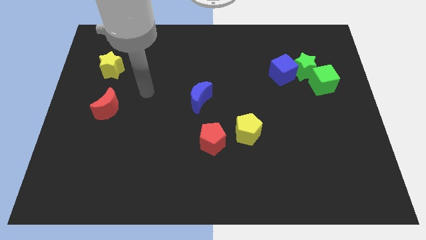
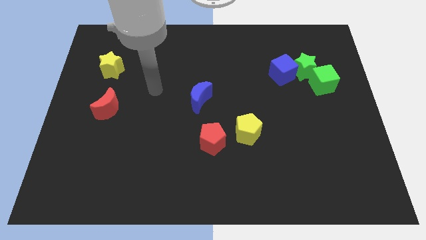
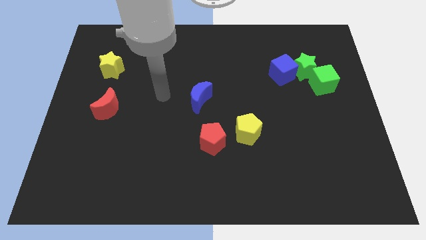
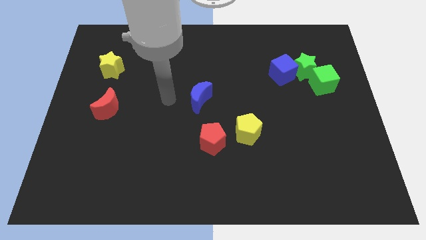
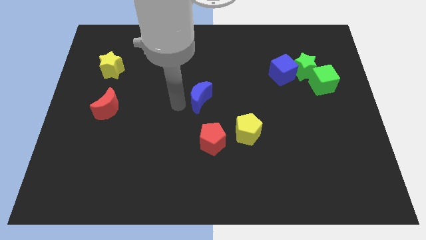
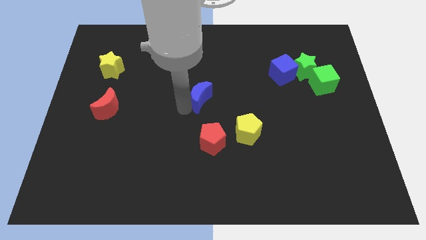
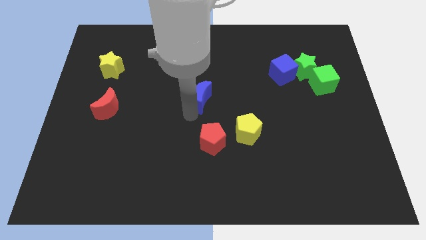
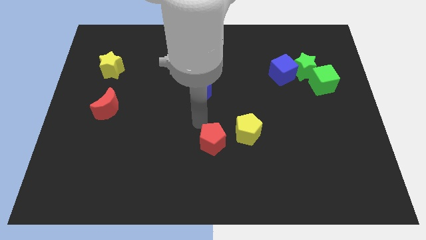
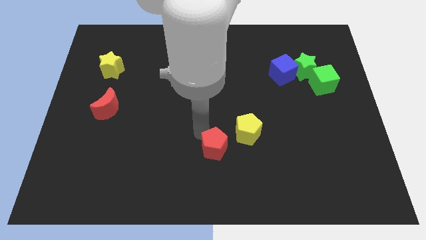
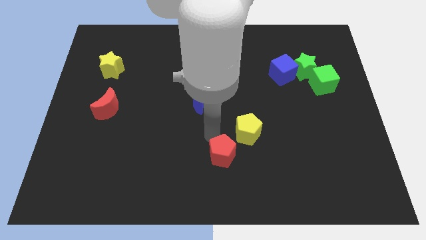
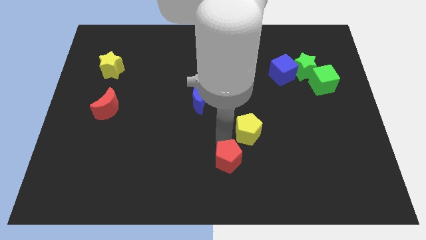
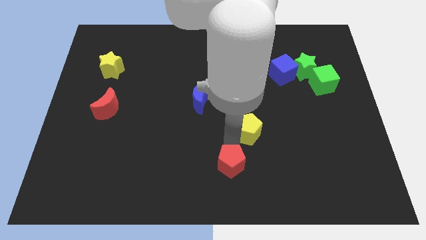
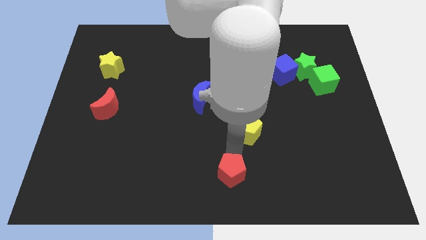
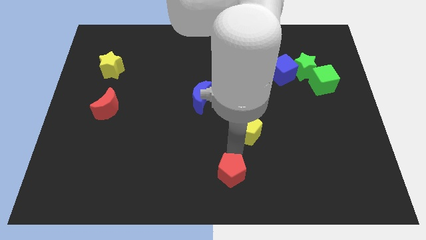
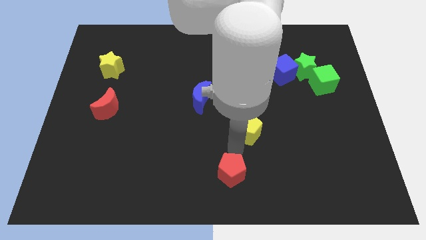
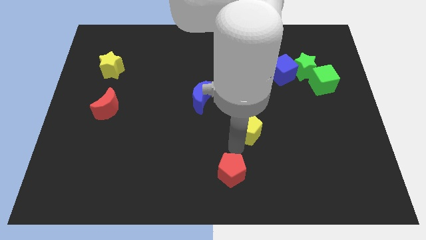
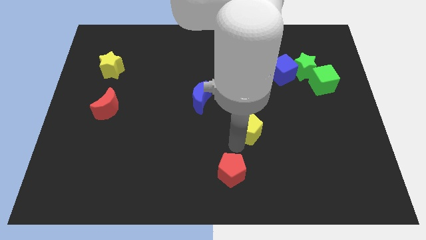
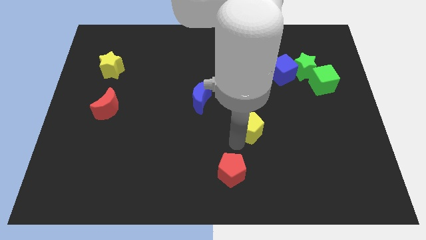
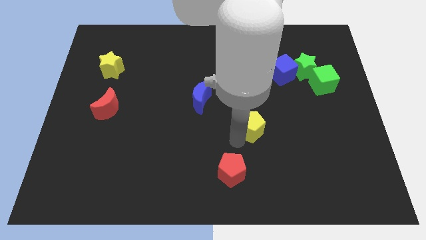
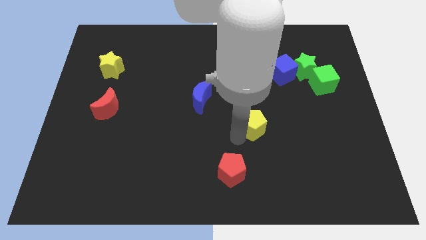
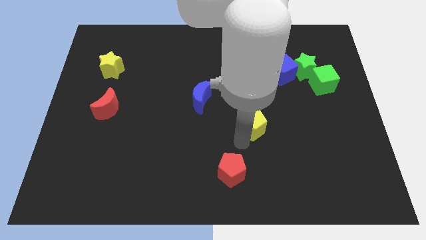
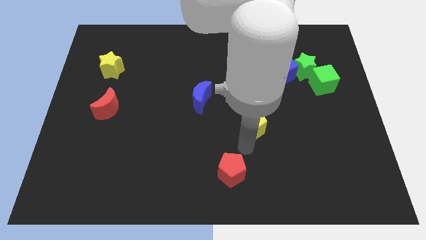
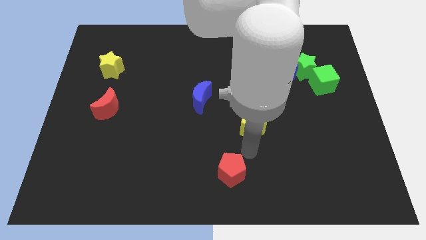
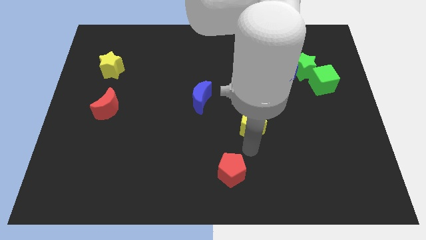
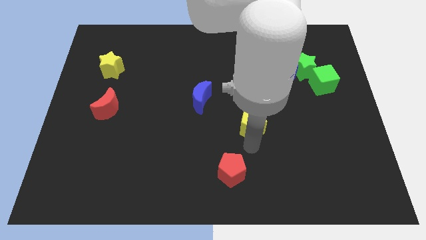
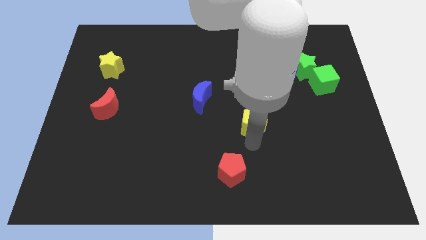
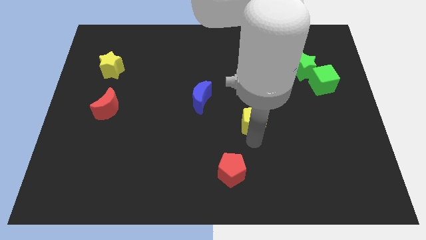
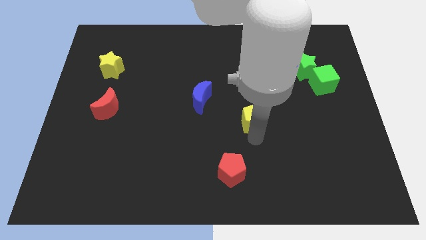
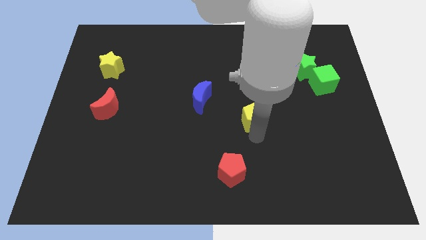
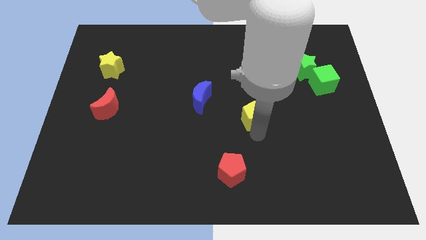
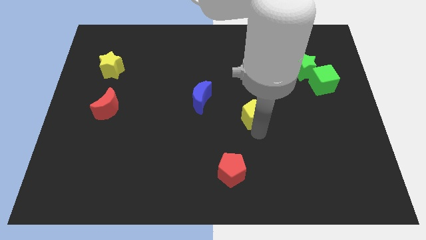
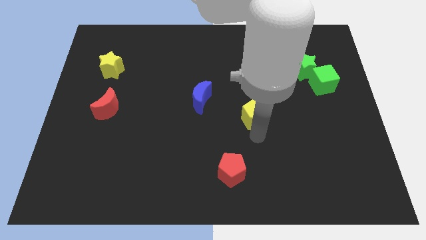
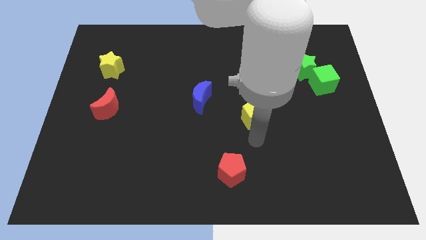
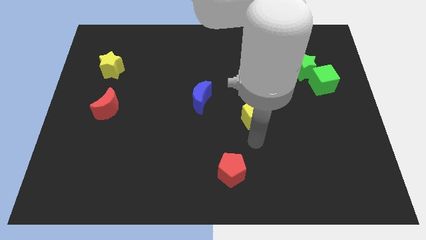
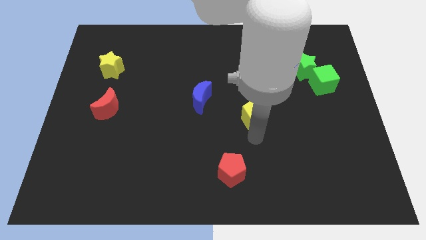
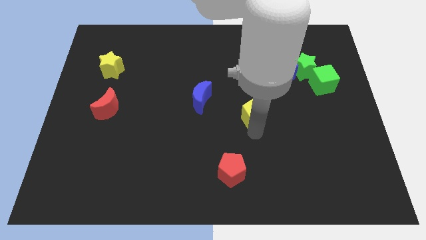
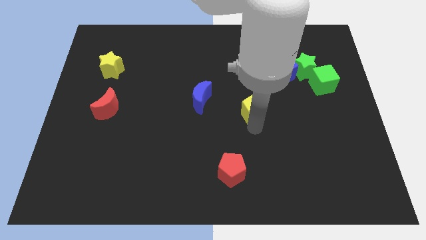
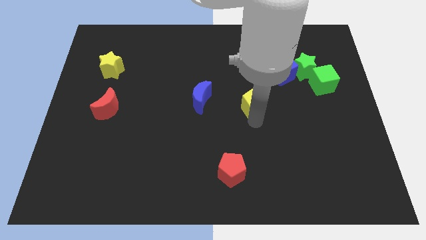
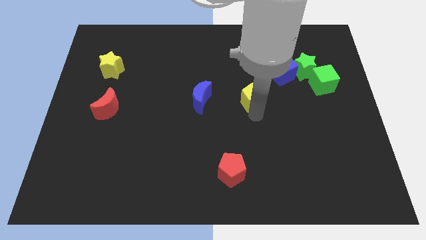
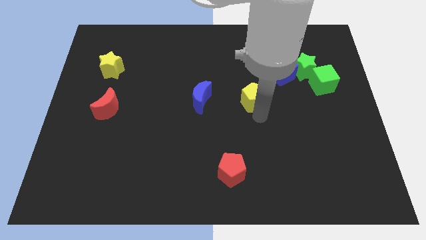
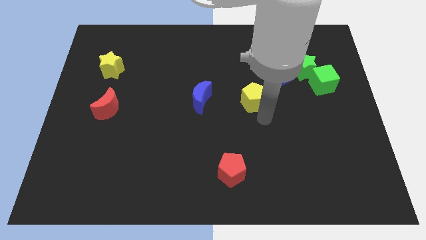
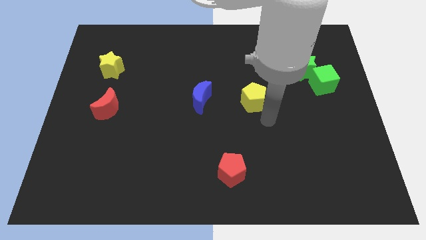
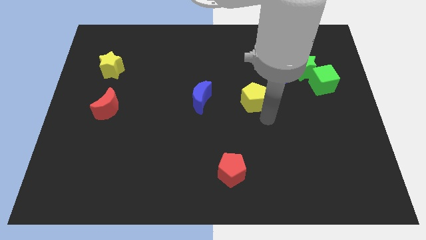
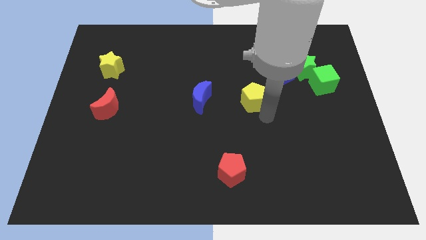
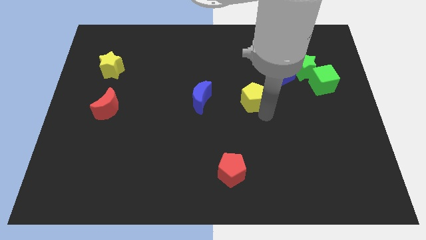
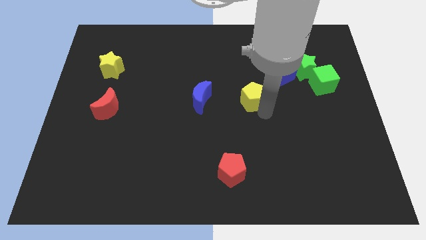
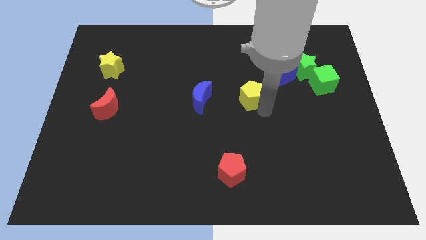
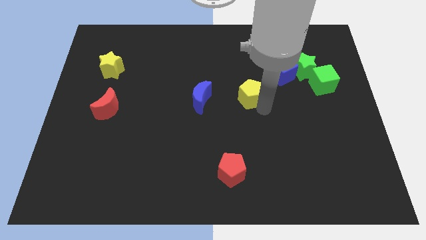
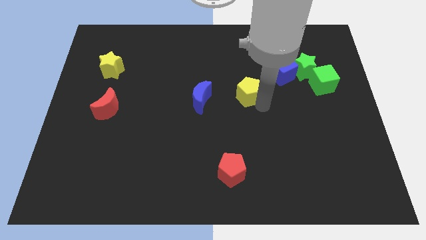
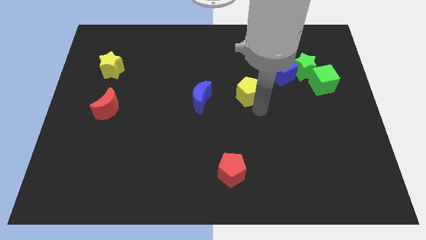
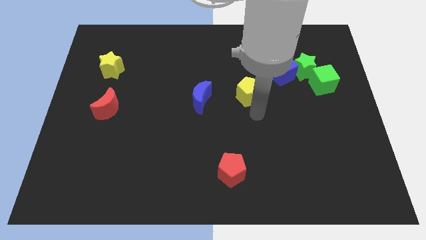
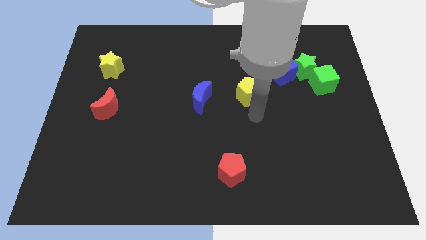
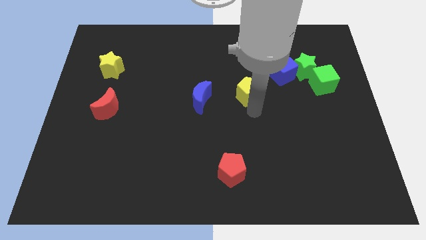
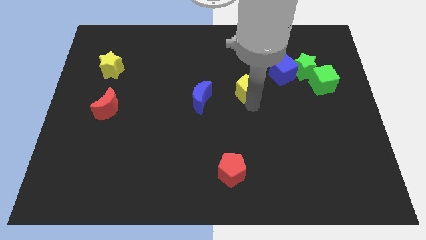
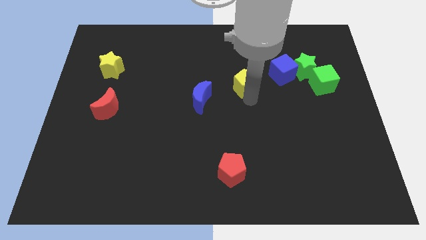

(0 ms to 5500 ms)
put the yellow pentagon left of the blue cube

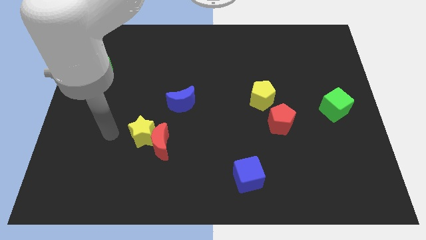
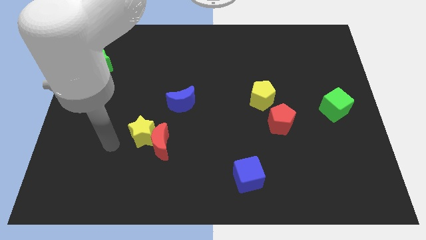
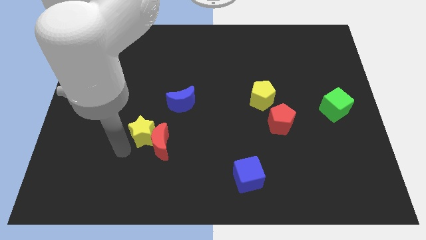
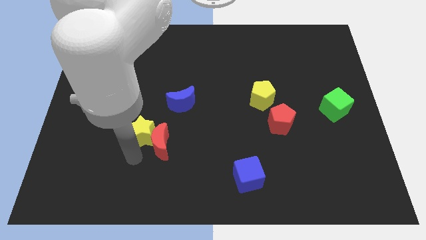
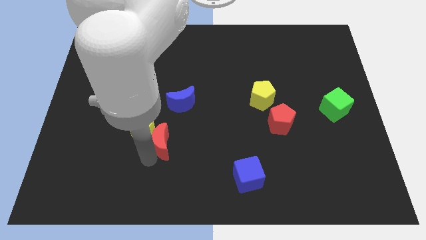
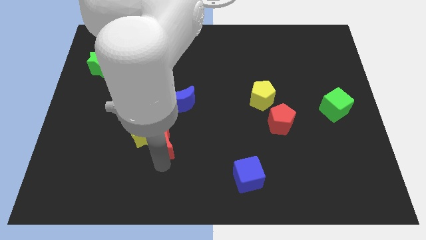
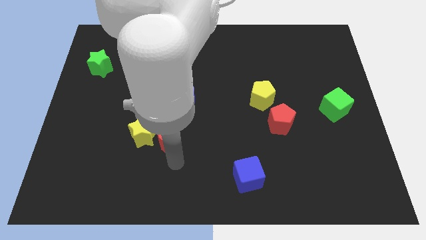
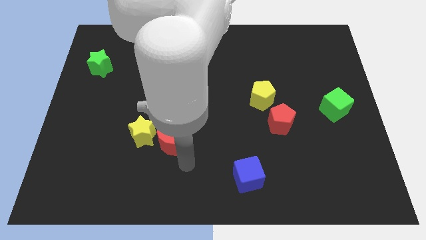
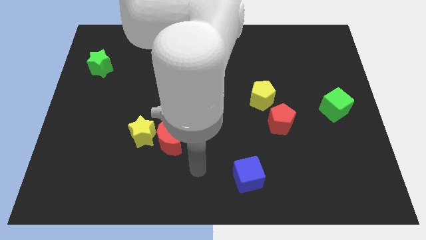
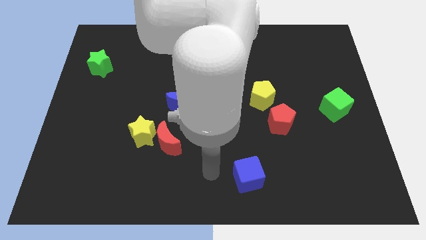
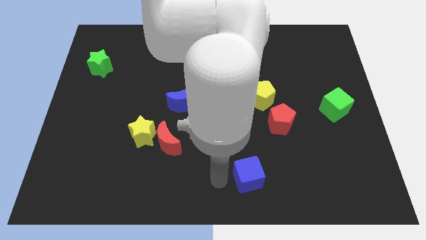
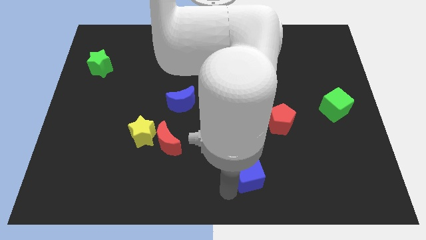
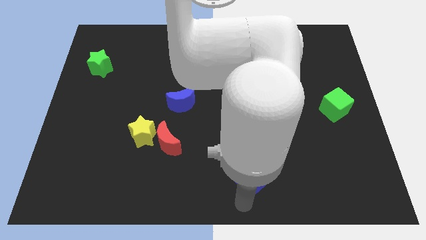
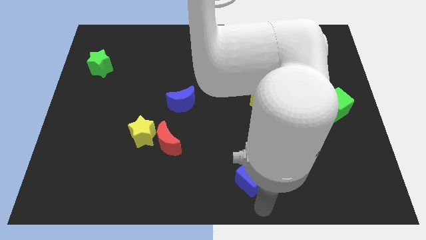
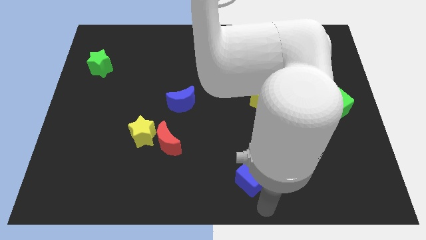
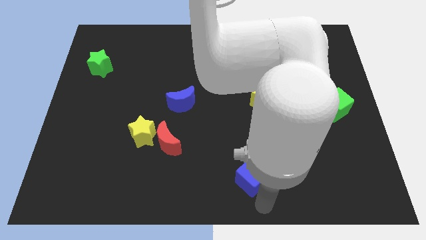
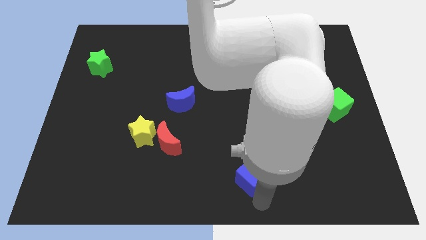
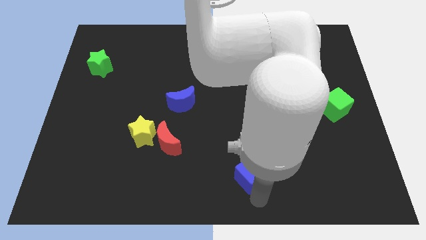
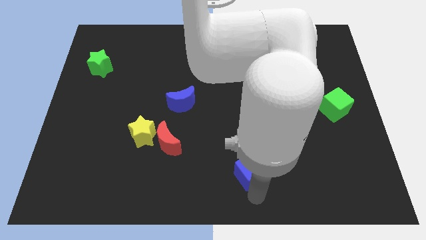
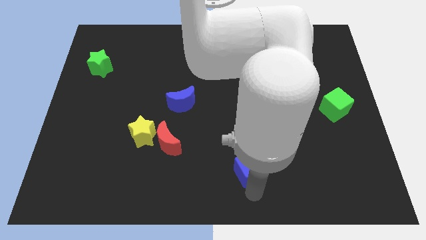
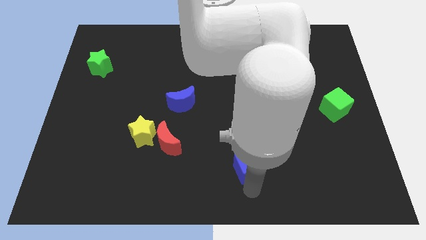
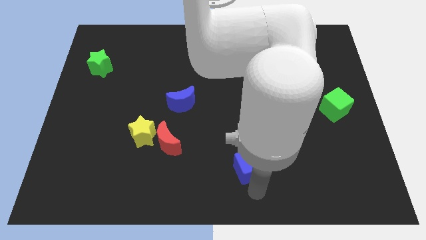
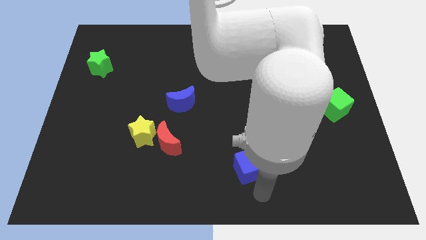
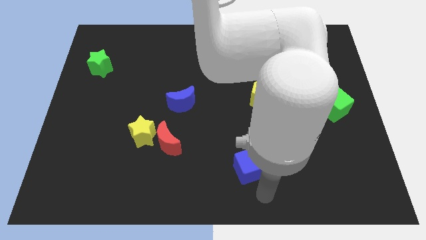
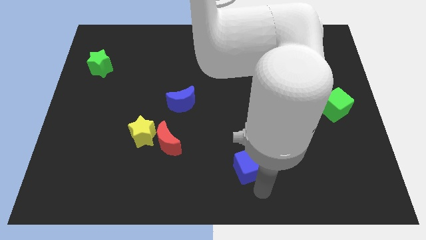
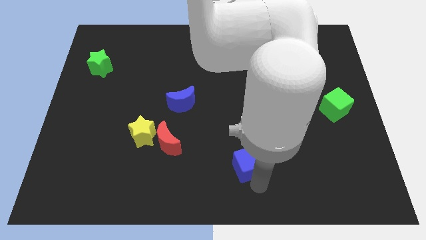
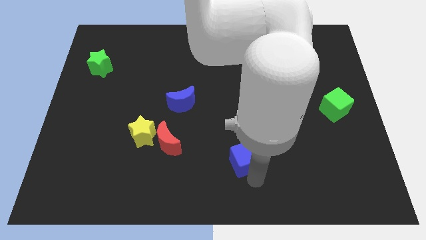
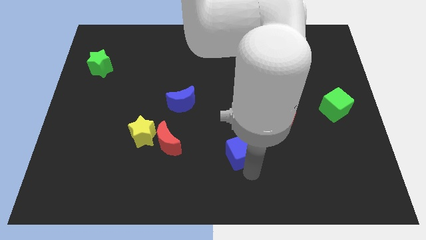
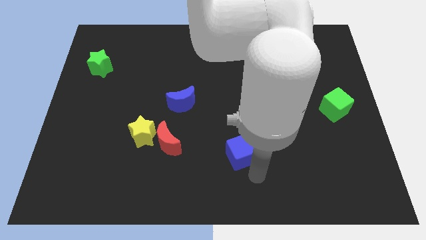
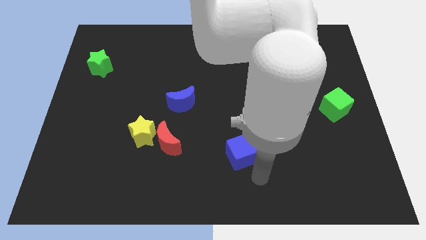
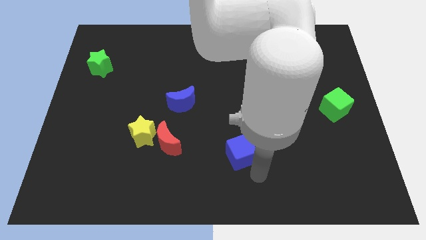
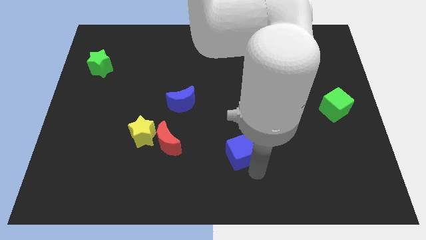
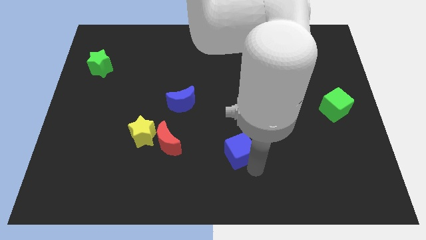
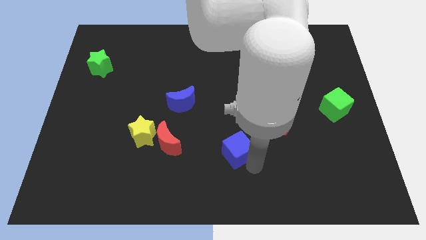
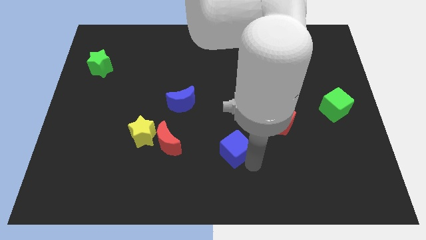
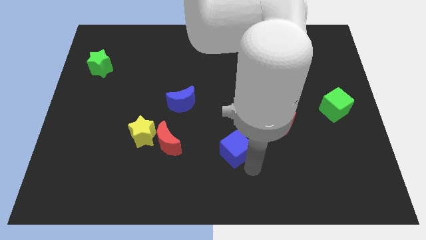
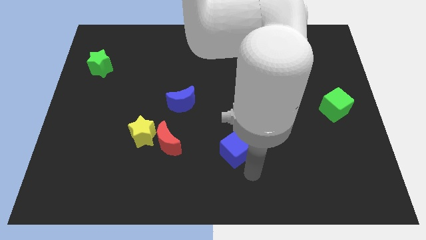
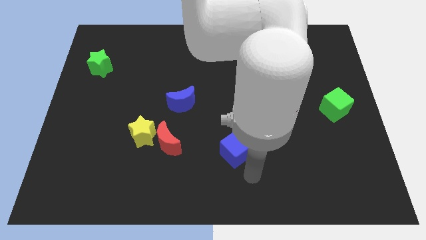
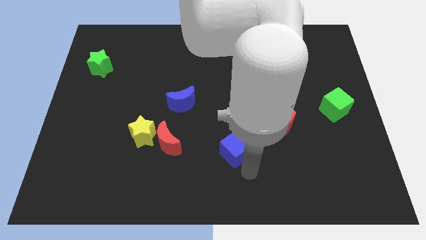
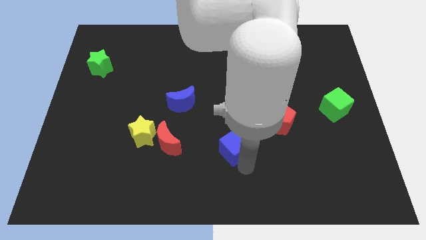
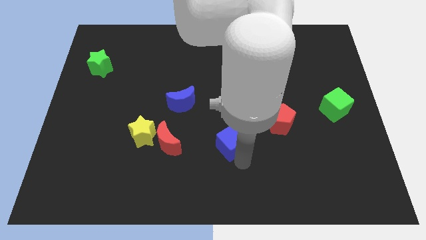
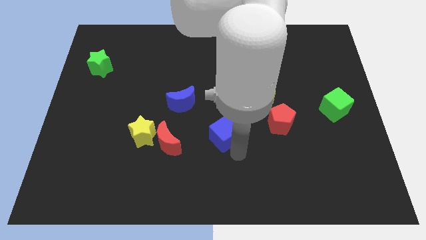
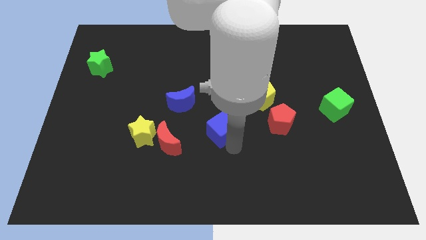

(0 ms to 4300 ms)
move the blue cube diagonally down and to the right of the blue moon
